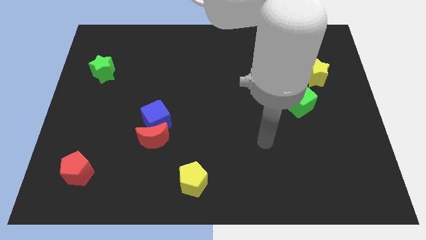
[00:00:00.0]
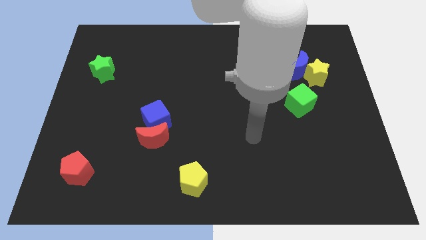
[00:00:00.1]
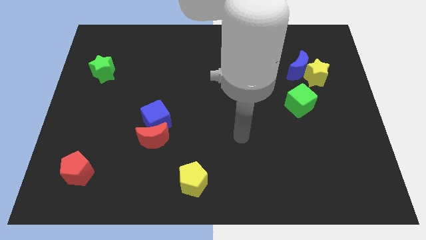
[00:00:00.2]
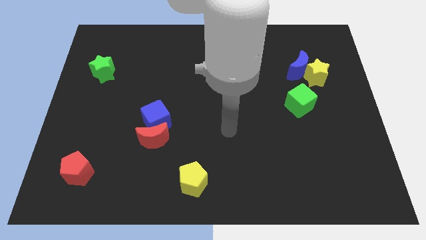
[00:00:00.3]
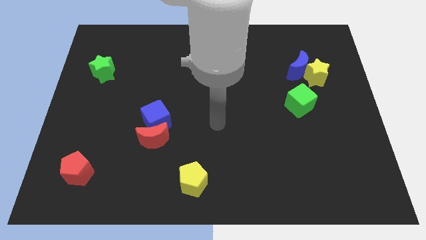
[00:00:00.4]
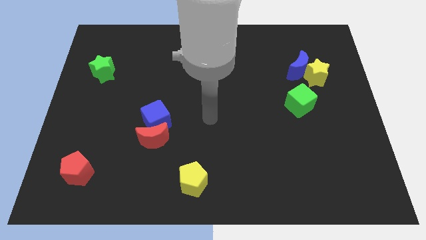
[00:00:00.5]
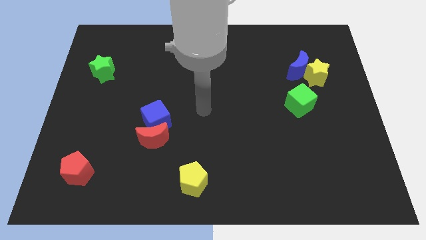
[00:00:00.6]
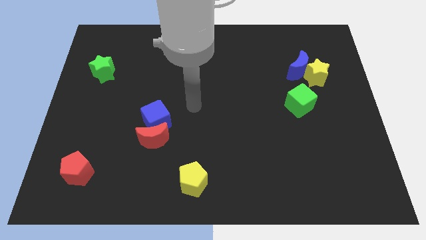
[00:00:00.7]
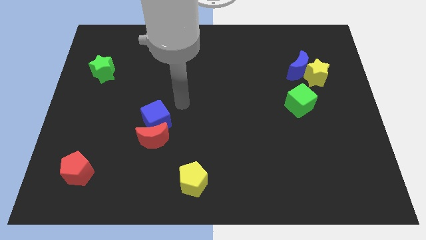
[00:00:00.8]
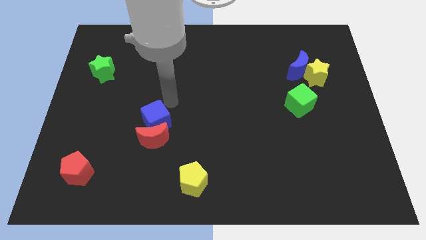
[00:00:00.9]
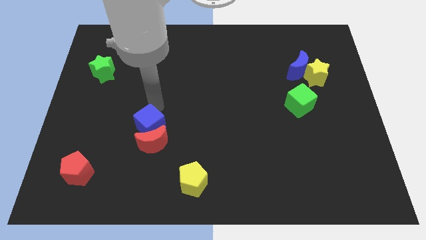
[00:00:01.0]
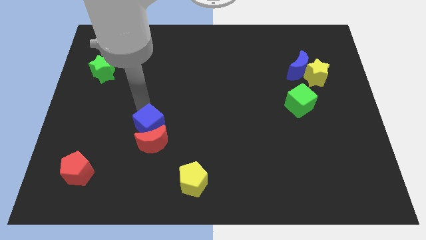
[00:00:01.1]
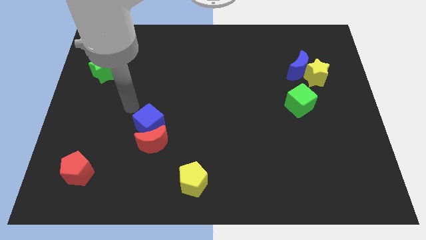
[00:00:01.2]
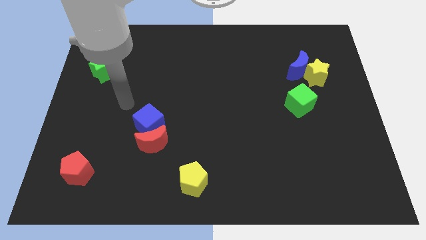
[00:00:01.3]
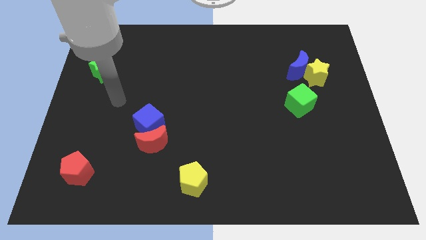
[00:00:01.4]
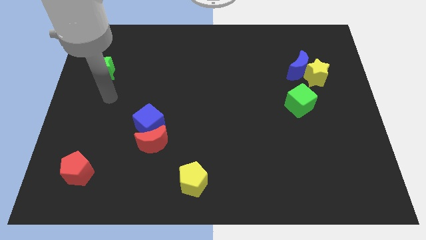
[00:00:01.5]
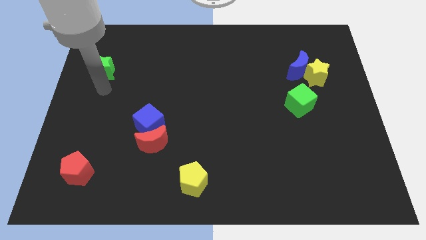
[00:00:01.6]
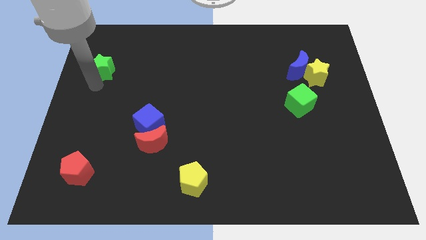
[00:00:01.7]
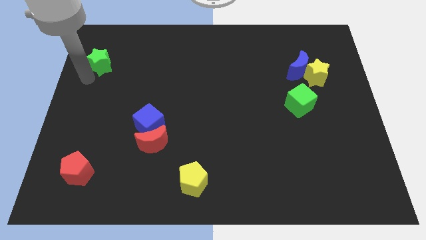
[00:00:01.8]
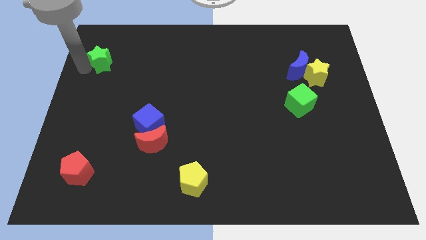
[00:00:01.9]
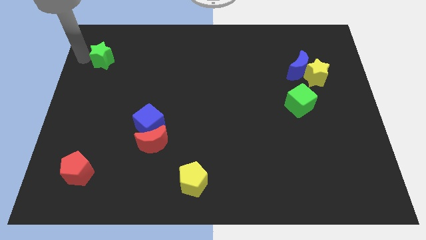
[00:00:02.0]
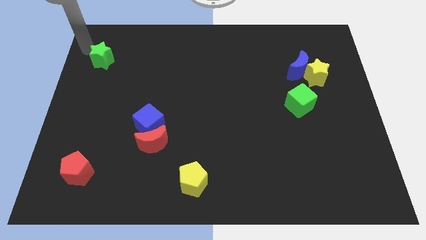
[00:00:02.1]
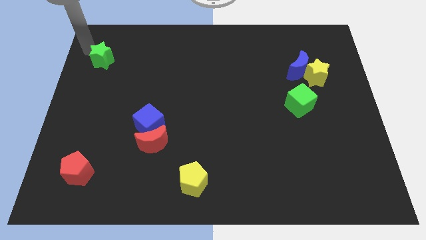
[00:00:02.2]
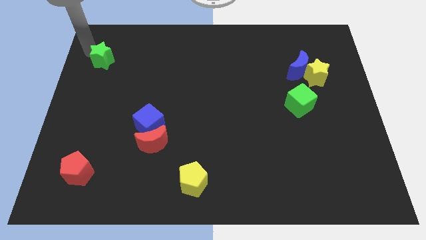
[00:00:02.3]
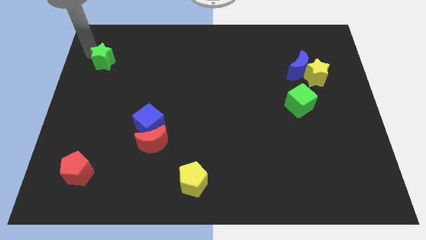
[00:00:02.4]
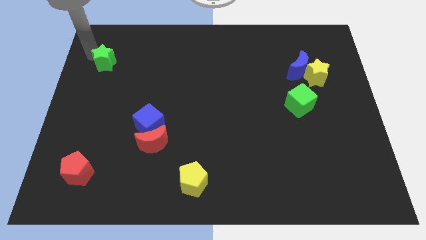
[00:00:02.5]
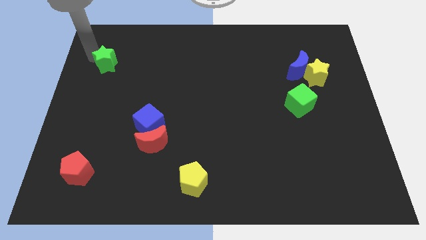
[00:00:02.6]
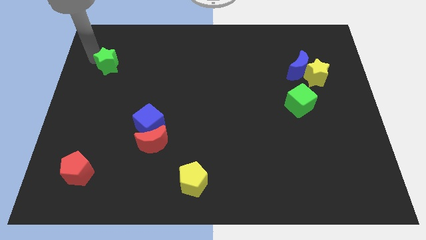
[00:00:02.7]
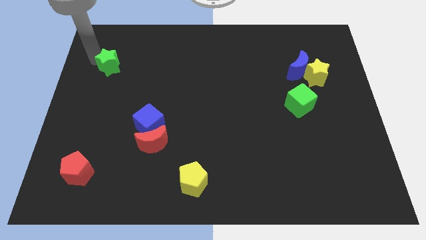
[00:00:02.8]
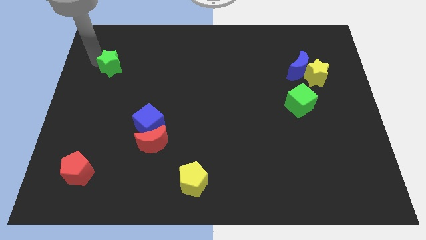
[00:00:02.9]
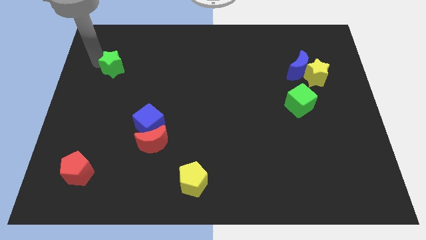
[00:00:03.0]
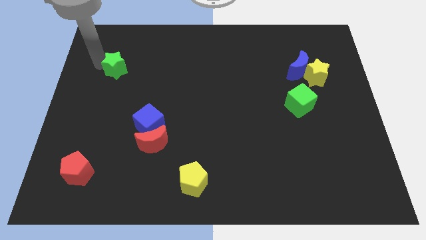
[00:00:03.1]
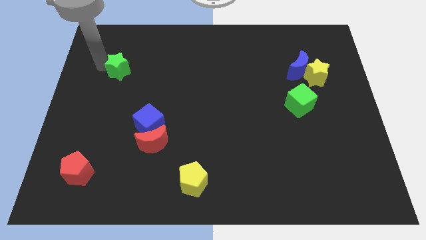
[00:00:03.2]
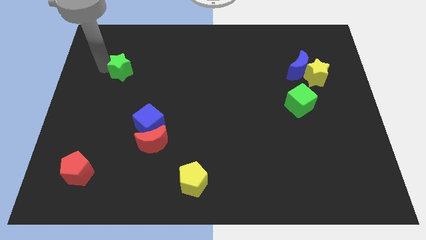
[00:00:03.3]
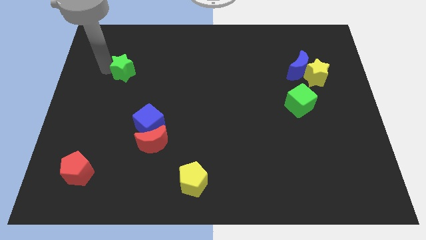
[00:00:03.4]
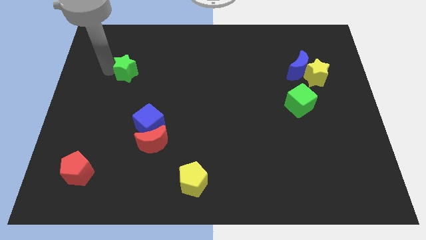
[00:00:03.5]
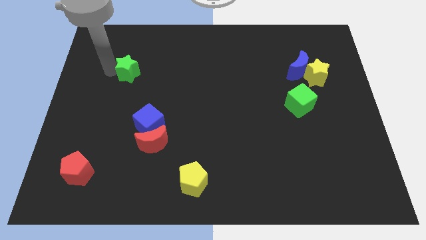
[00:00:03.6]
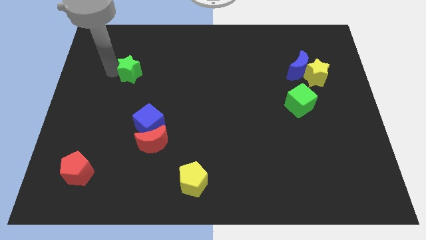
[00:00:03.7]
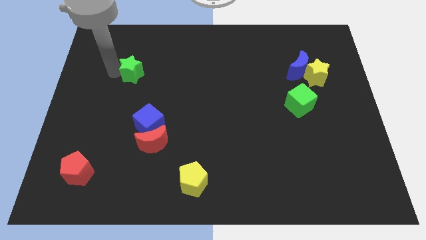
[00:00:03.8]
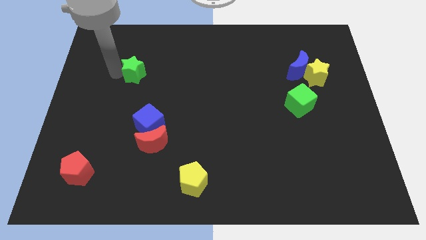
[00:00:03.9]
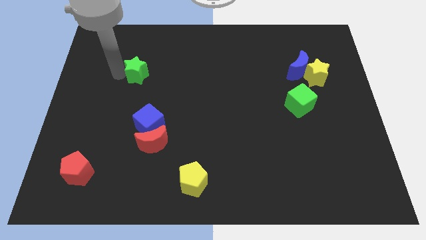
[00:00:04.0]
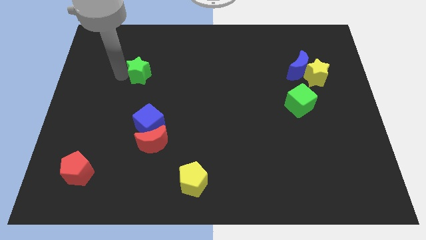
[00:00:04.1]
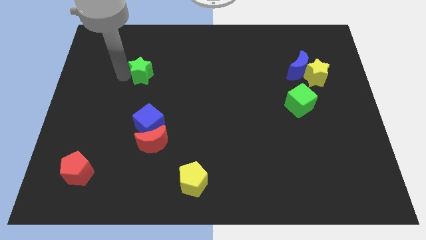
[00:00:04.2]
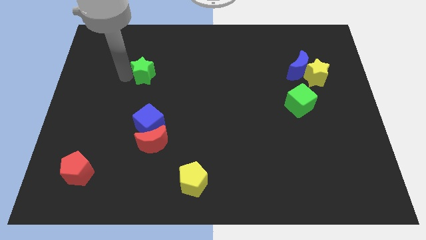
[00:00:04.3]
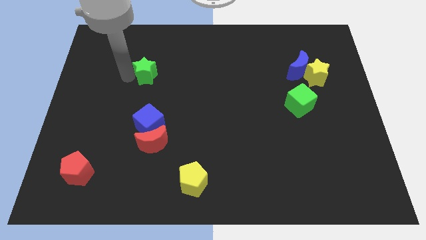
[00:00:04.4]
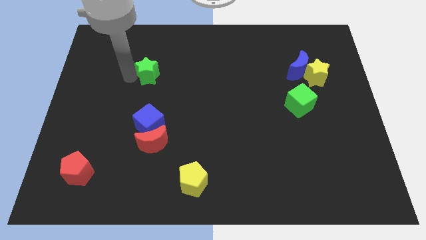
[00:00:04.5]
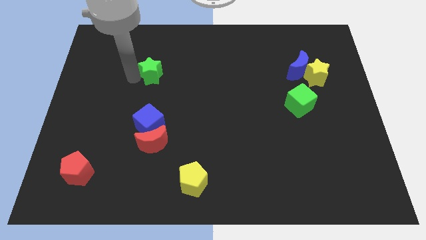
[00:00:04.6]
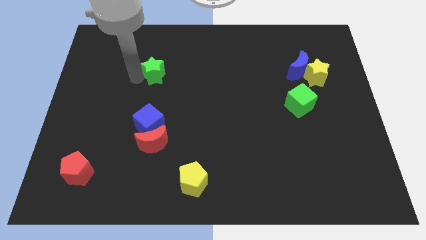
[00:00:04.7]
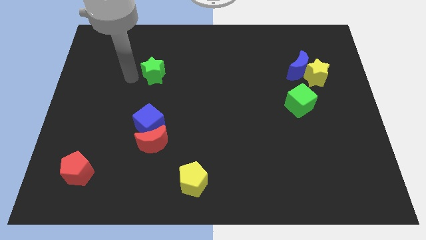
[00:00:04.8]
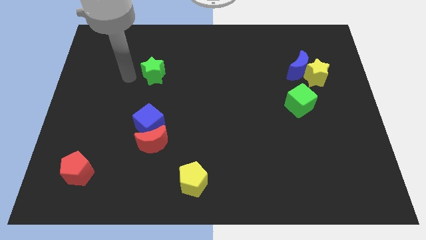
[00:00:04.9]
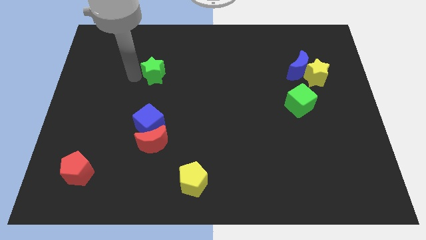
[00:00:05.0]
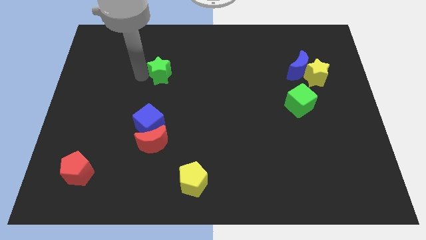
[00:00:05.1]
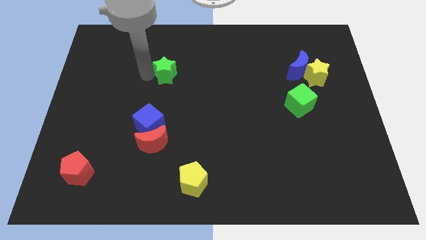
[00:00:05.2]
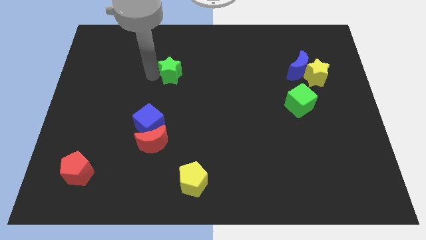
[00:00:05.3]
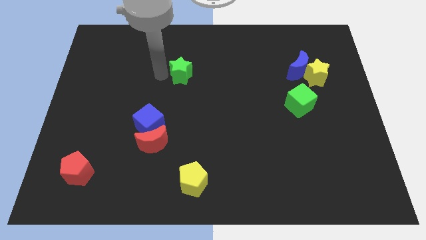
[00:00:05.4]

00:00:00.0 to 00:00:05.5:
move the green star right

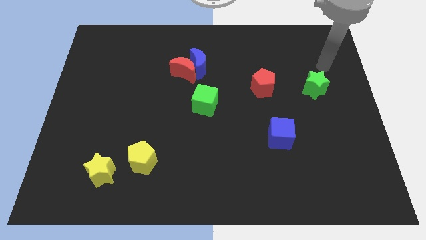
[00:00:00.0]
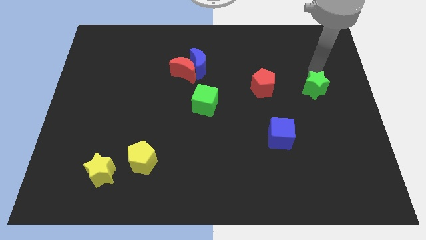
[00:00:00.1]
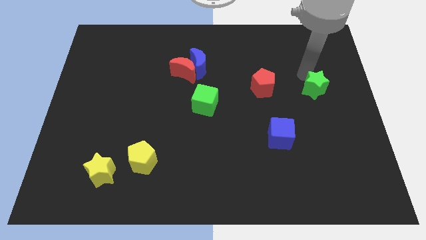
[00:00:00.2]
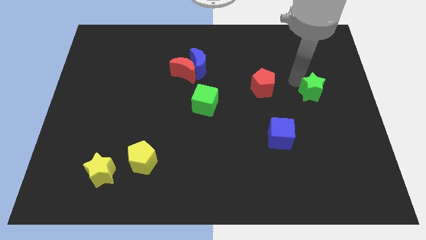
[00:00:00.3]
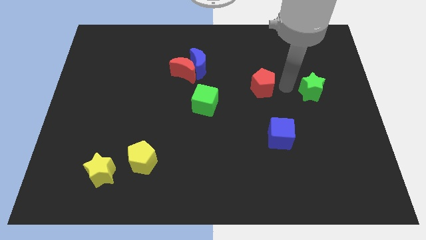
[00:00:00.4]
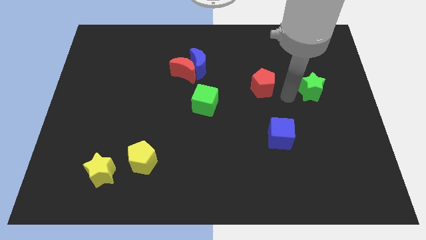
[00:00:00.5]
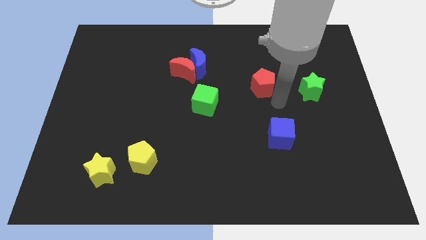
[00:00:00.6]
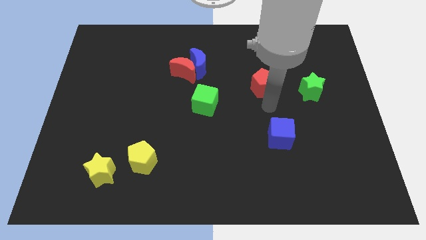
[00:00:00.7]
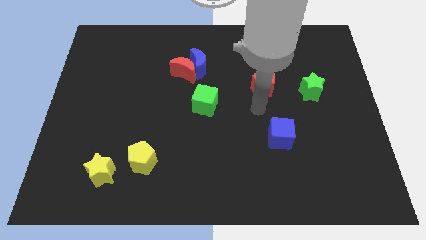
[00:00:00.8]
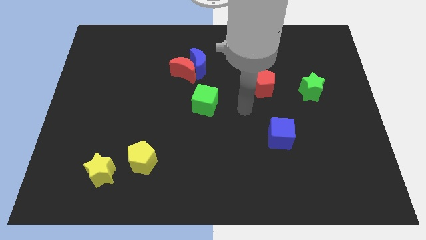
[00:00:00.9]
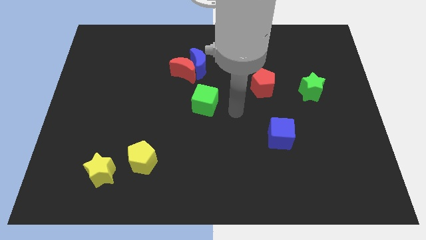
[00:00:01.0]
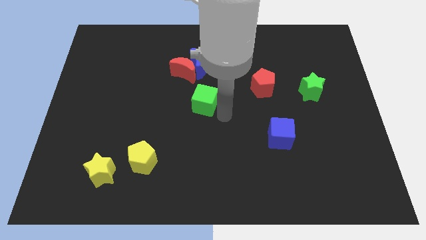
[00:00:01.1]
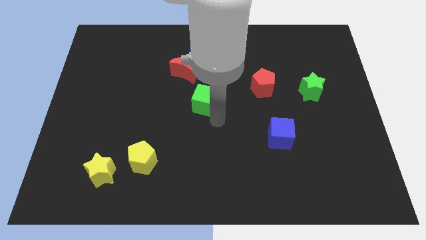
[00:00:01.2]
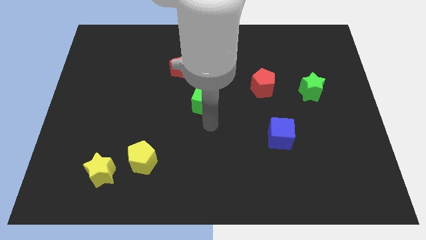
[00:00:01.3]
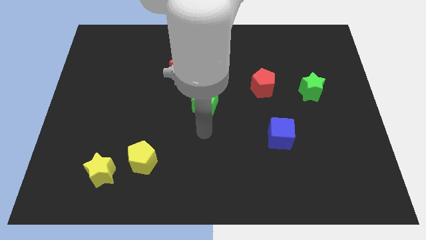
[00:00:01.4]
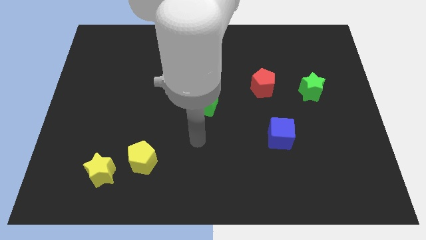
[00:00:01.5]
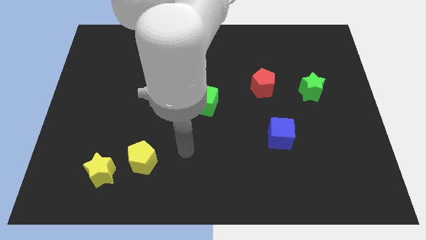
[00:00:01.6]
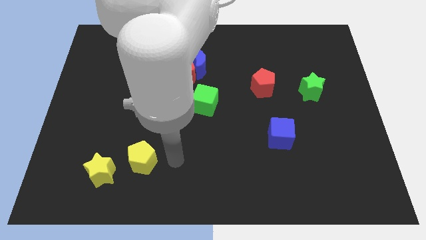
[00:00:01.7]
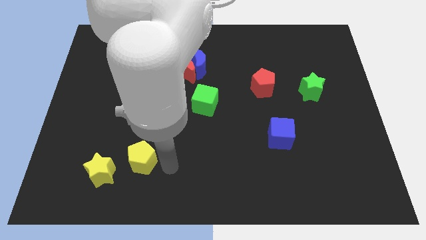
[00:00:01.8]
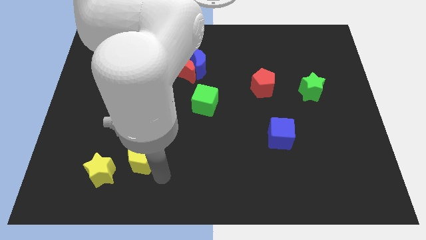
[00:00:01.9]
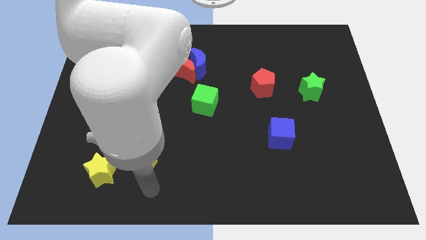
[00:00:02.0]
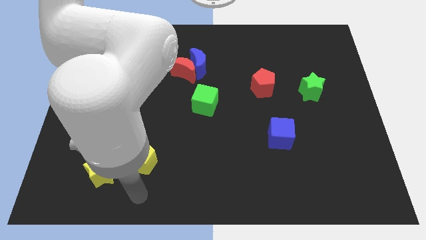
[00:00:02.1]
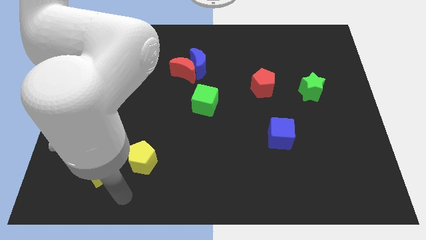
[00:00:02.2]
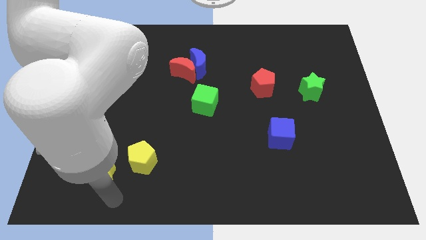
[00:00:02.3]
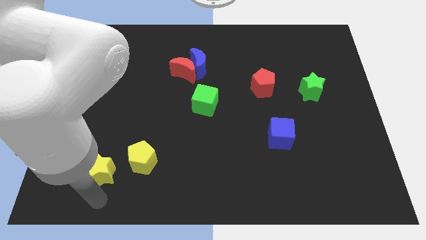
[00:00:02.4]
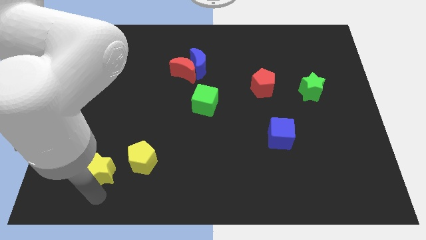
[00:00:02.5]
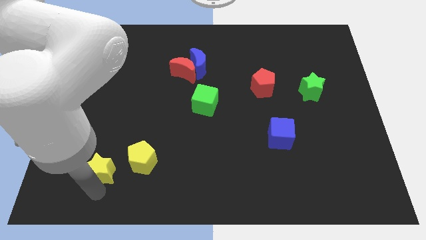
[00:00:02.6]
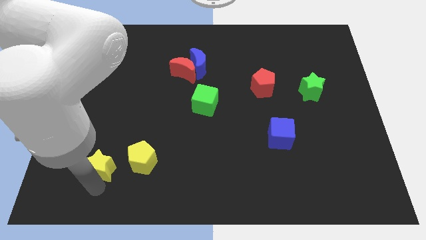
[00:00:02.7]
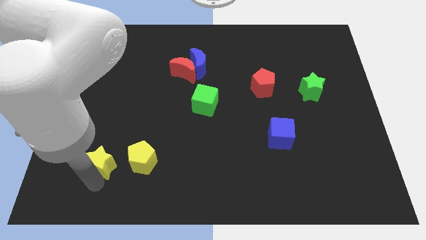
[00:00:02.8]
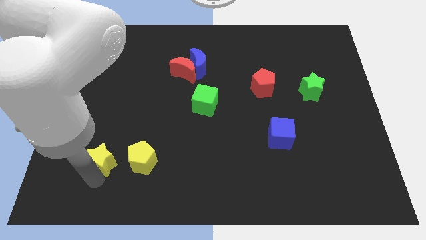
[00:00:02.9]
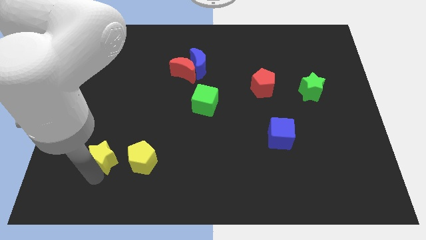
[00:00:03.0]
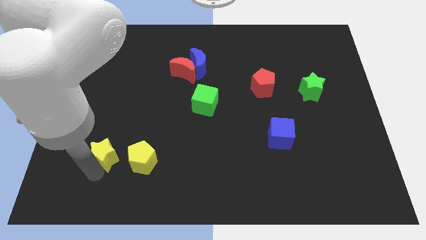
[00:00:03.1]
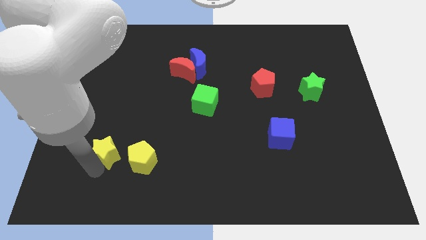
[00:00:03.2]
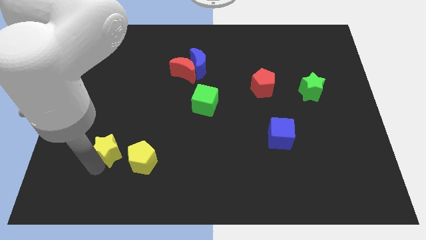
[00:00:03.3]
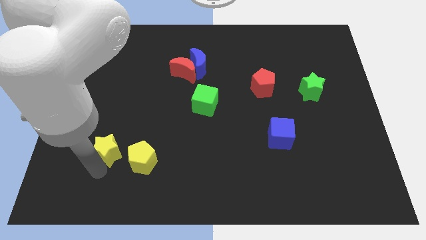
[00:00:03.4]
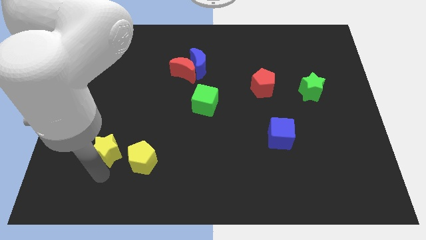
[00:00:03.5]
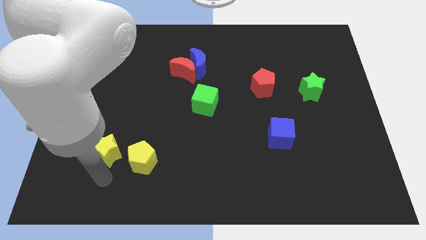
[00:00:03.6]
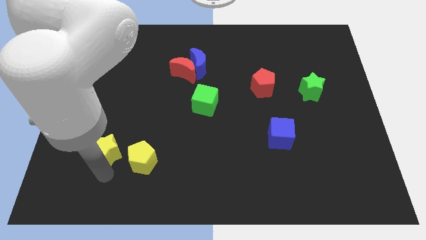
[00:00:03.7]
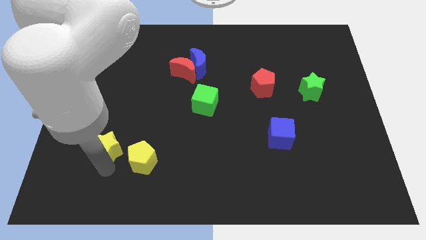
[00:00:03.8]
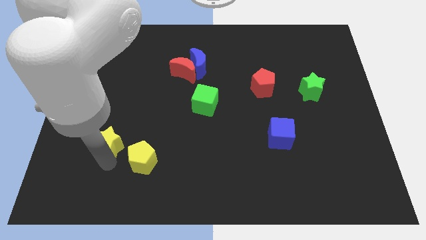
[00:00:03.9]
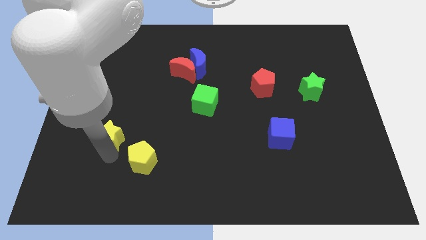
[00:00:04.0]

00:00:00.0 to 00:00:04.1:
slightly move the yellow star upwards
